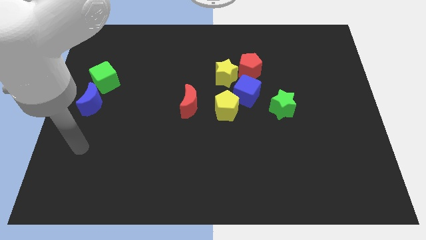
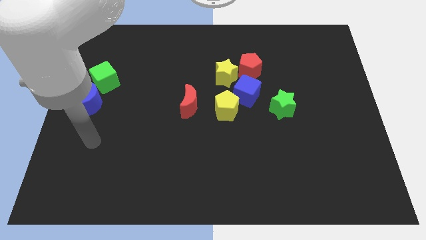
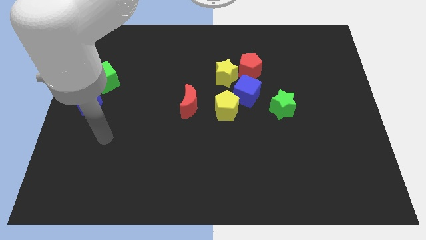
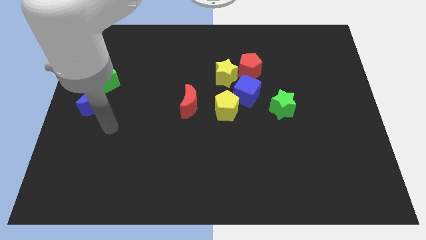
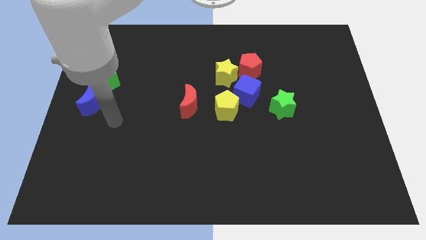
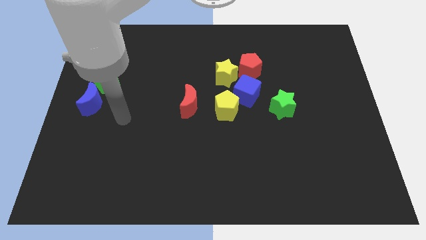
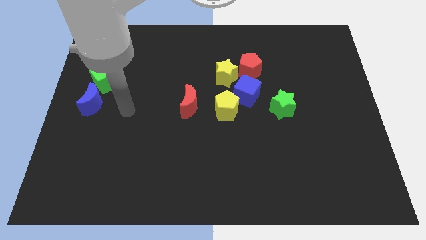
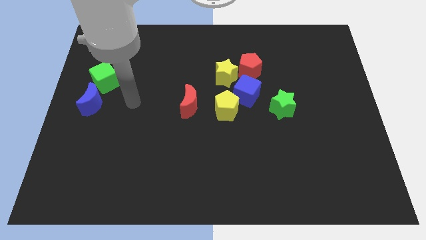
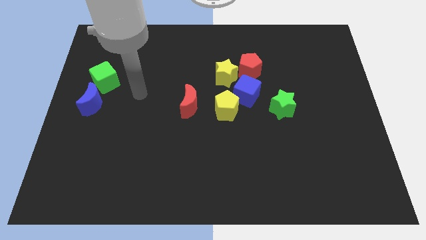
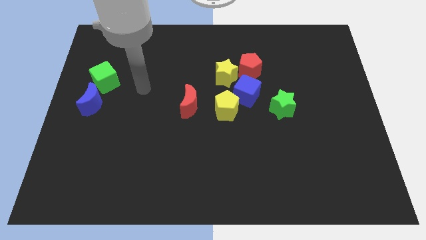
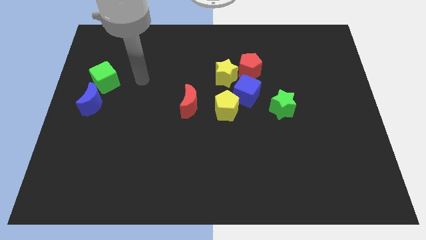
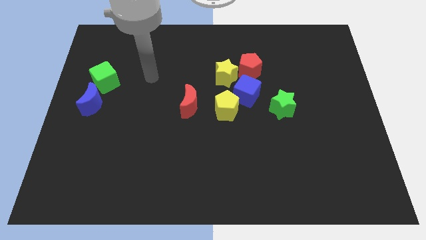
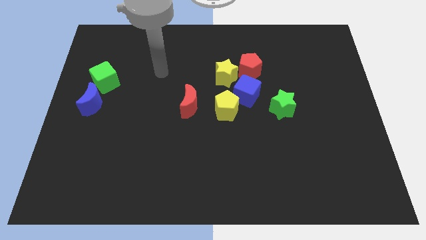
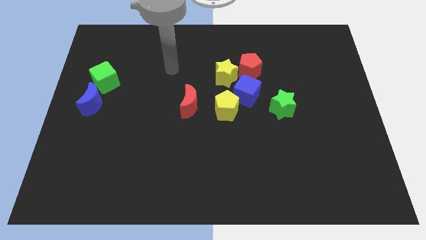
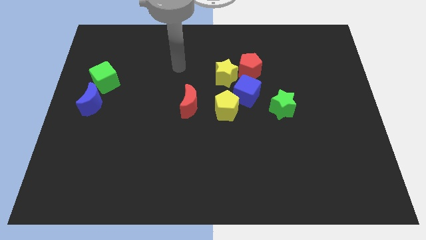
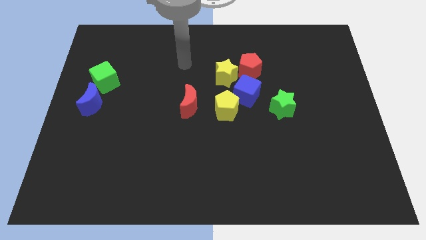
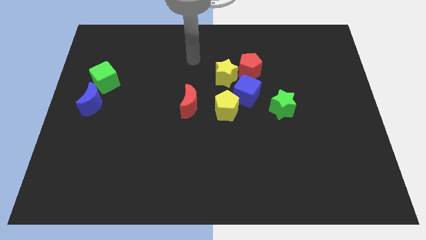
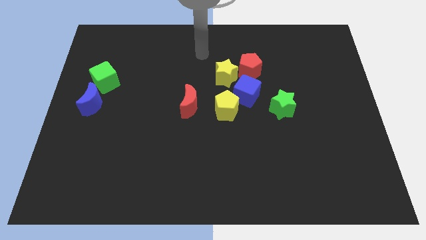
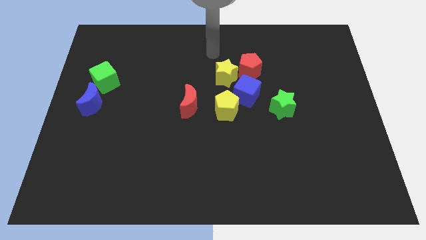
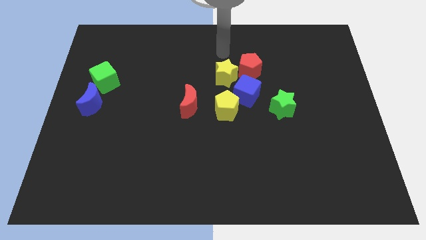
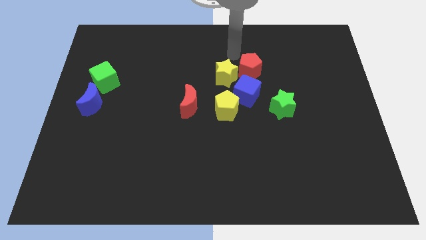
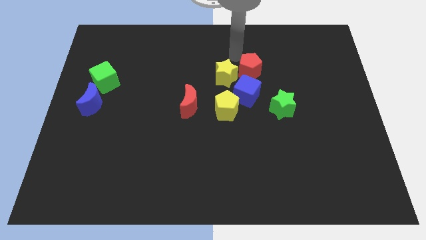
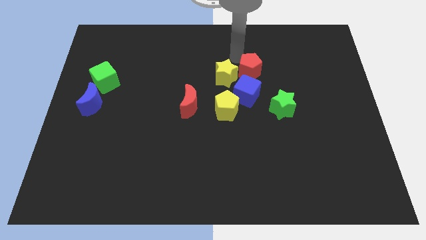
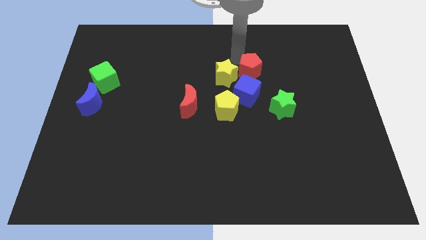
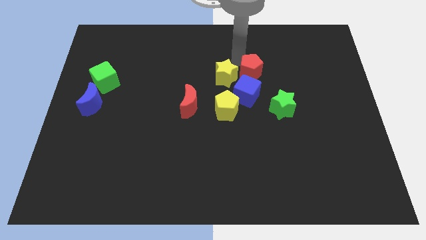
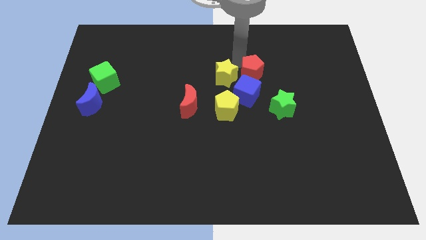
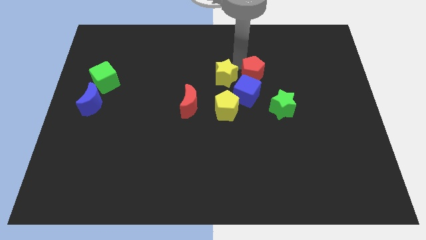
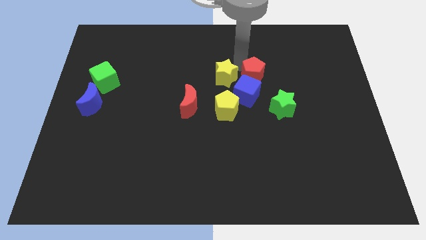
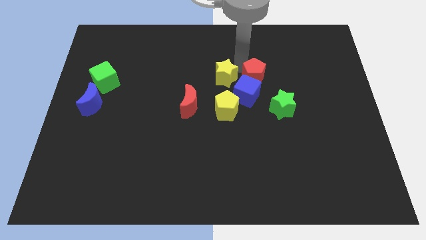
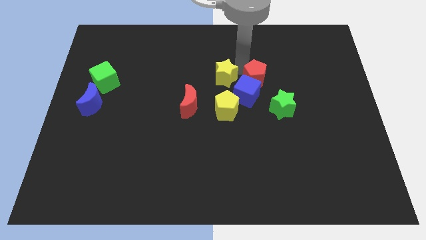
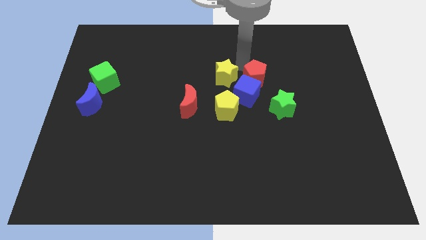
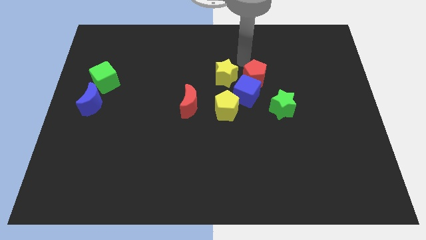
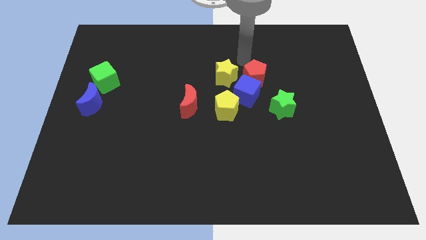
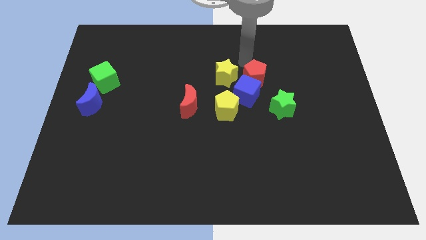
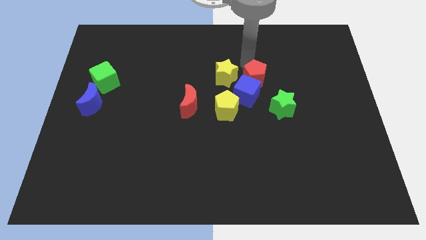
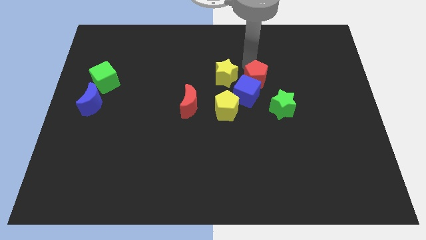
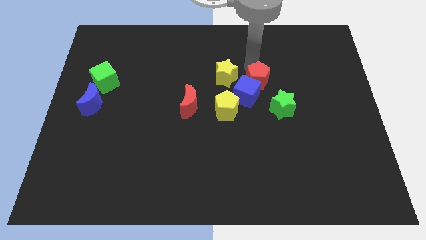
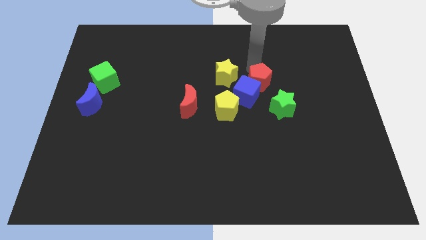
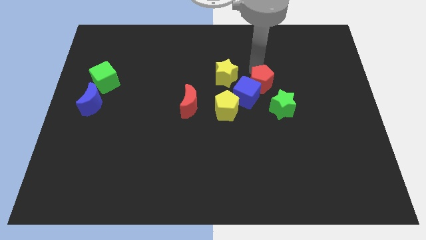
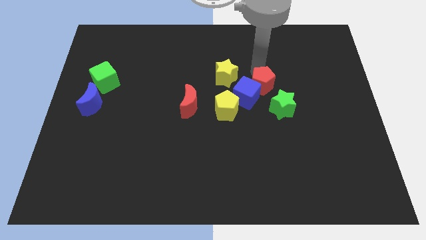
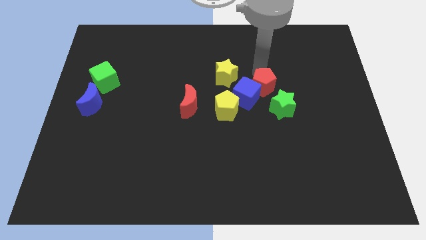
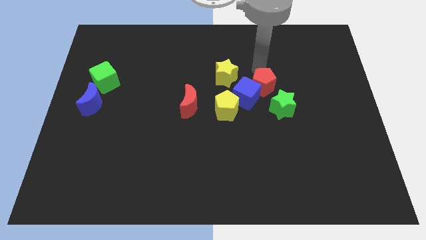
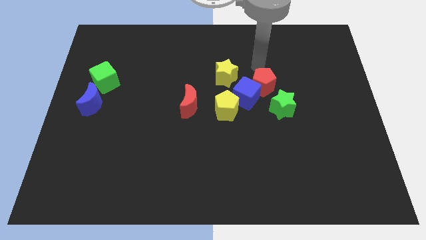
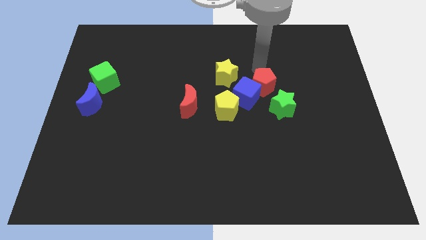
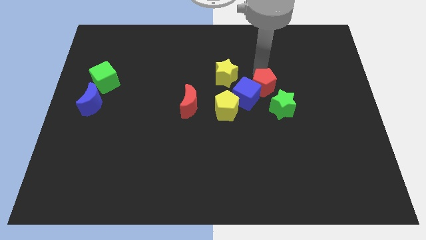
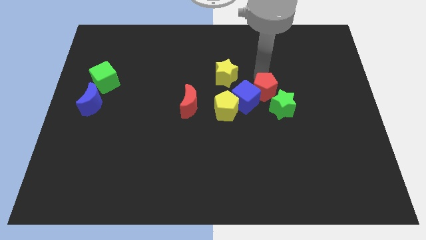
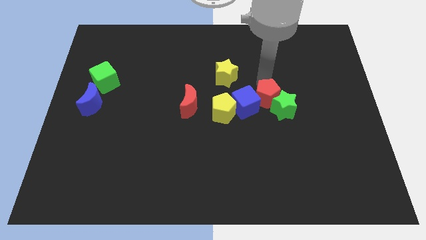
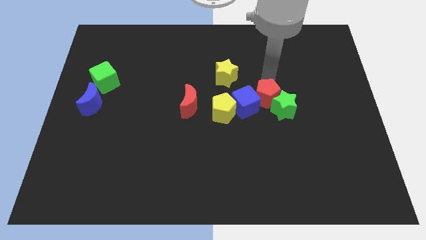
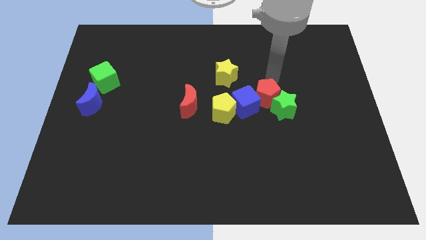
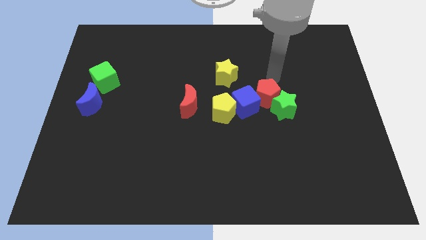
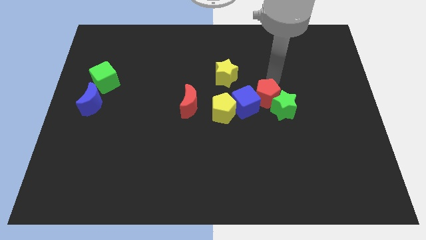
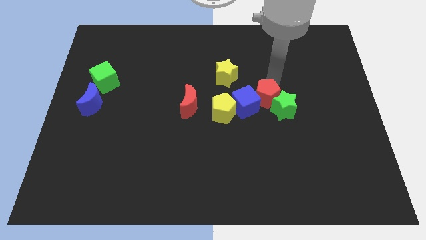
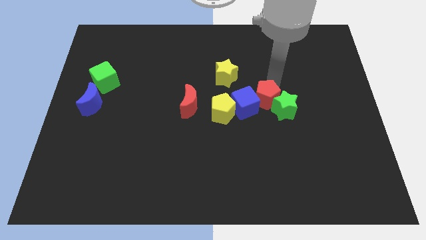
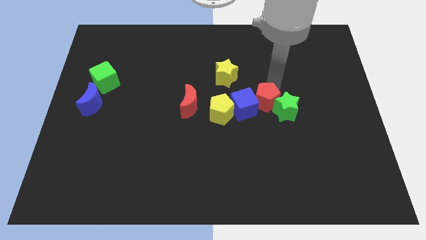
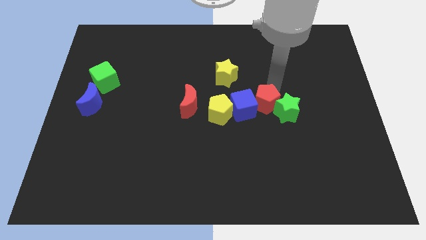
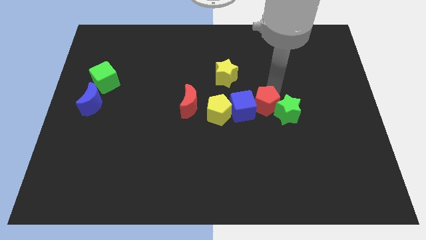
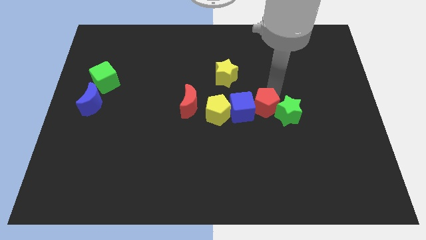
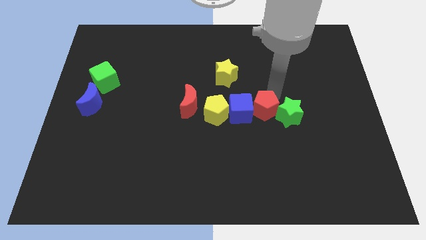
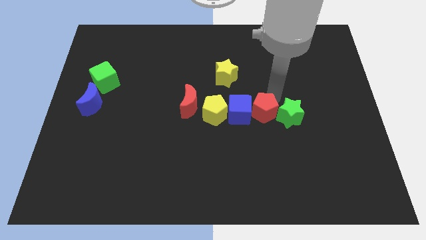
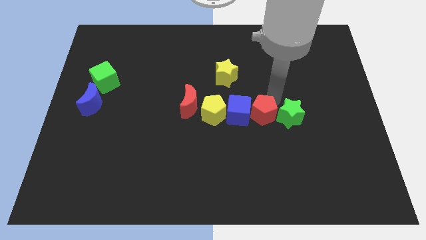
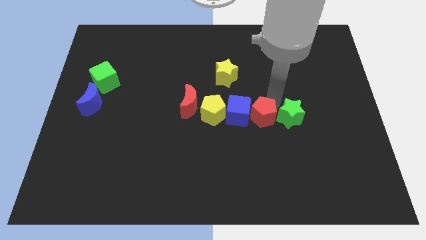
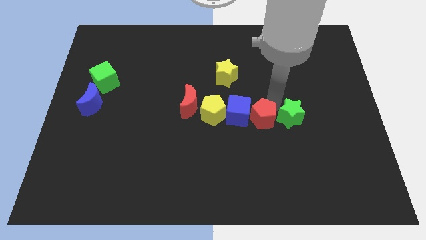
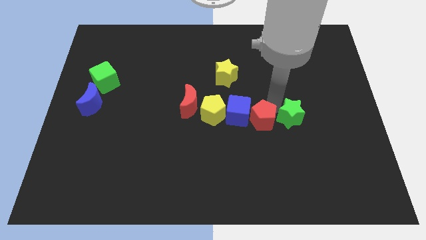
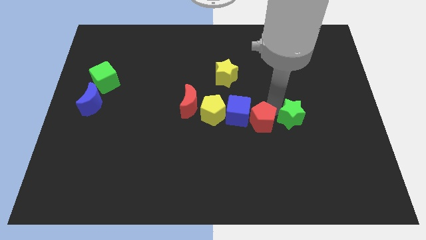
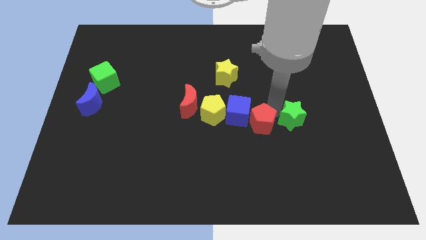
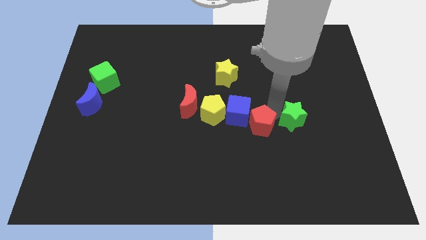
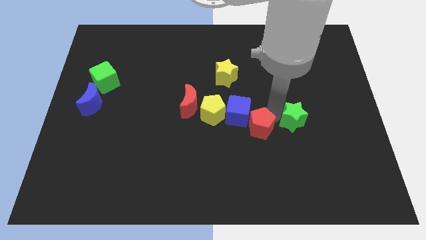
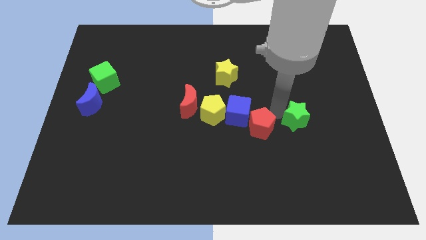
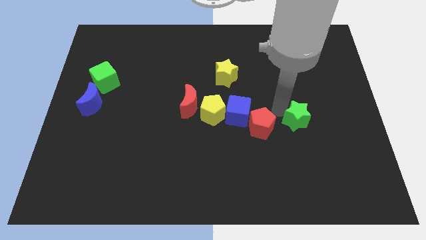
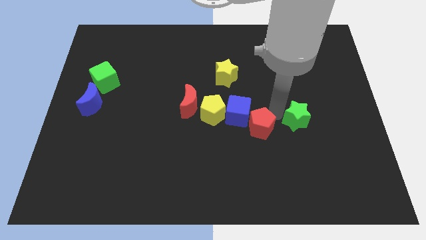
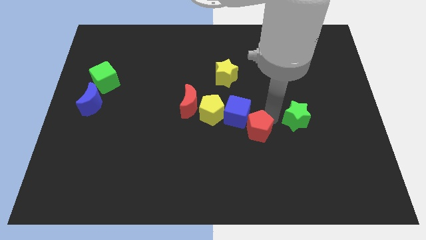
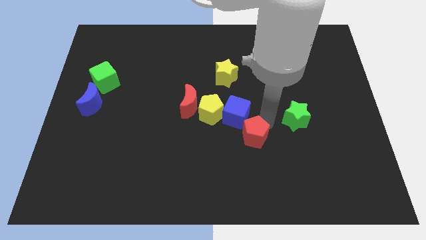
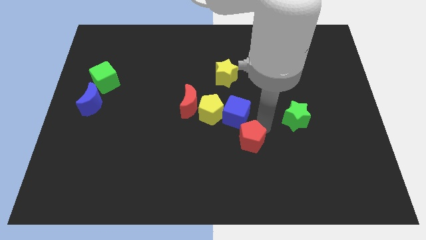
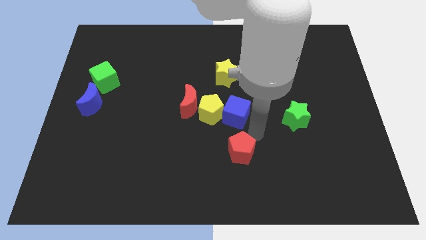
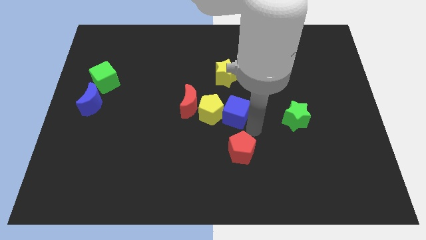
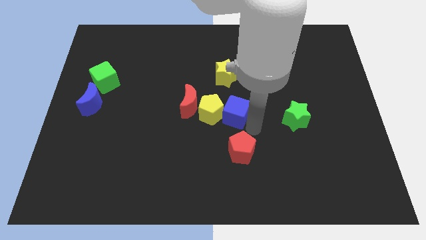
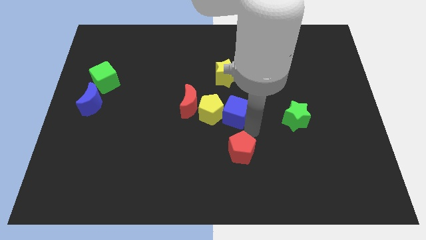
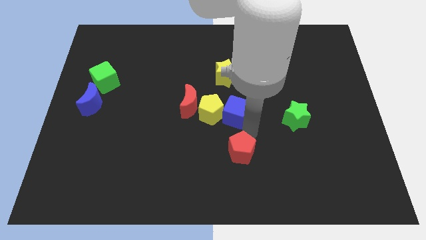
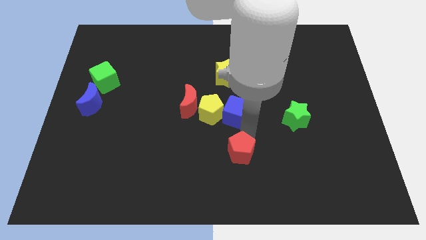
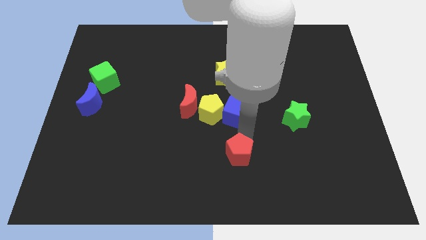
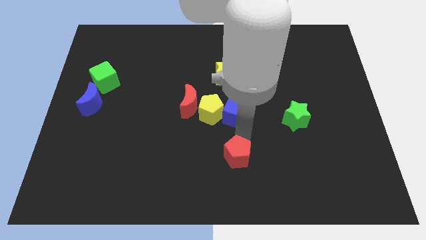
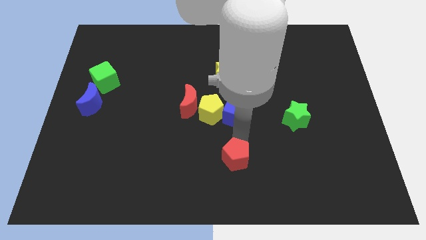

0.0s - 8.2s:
move the red pentagon to the bottom
